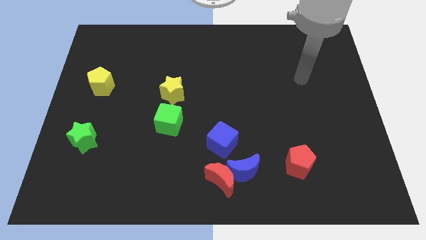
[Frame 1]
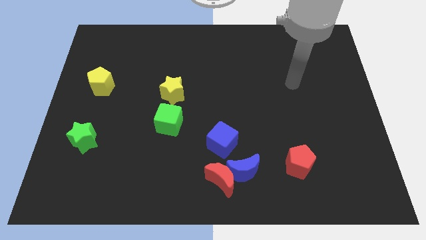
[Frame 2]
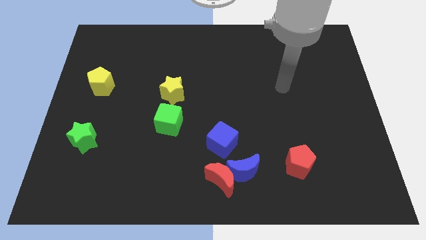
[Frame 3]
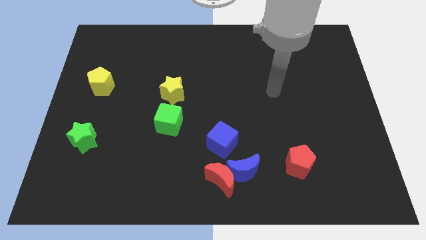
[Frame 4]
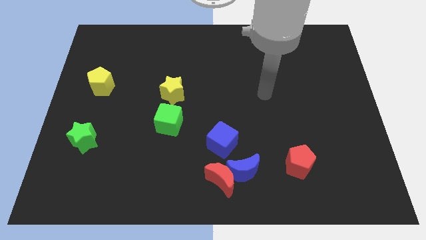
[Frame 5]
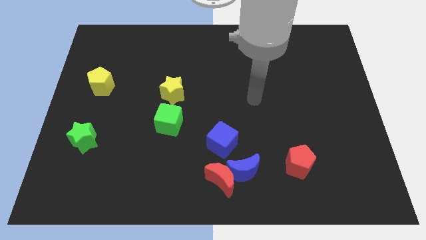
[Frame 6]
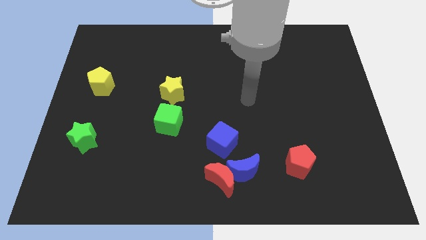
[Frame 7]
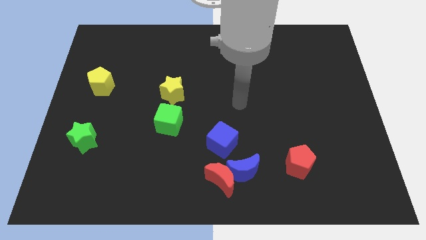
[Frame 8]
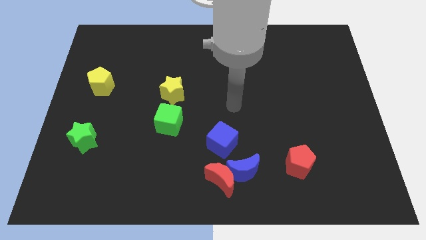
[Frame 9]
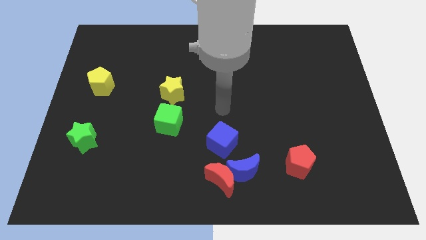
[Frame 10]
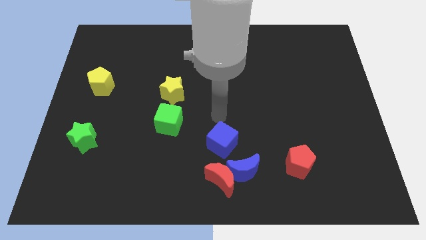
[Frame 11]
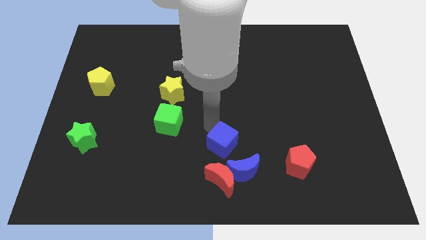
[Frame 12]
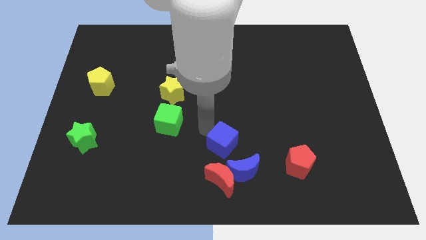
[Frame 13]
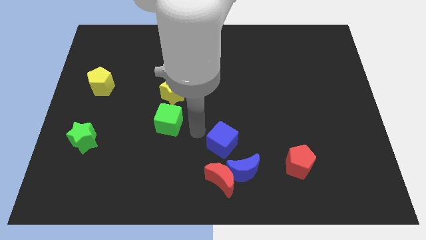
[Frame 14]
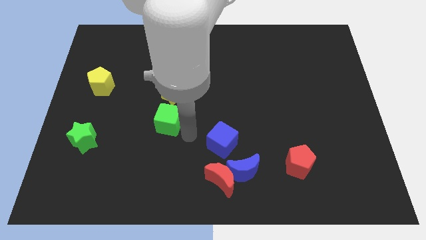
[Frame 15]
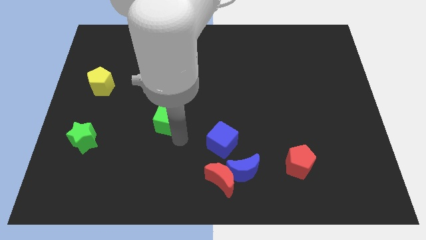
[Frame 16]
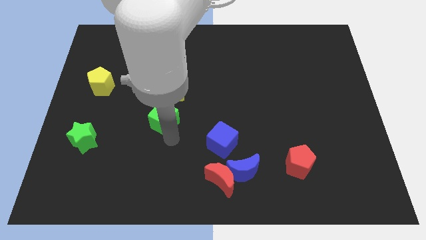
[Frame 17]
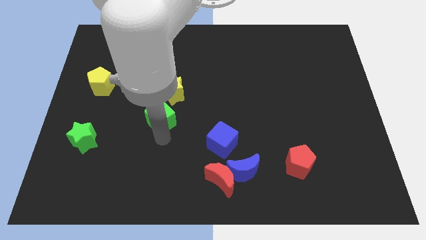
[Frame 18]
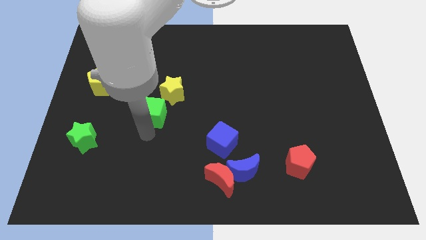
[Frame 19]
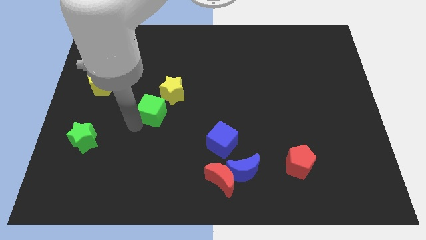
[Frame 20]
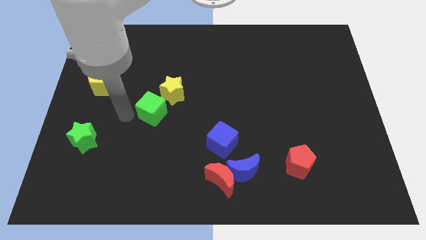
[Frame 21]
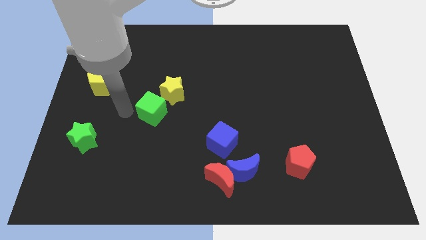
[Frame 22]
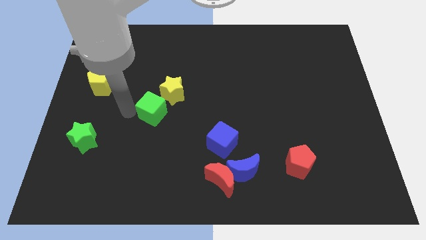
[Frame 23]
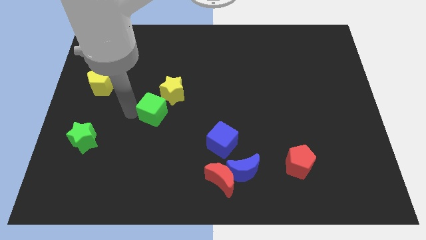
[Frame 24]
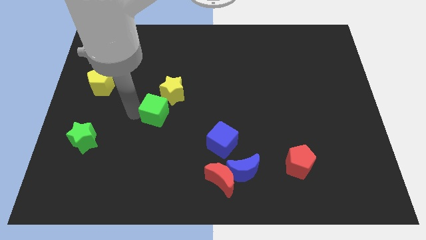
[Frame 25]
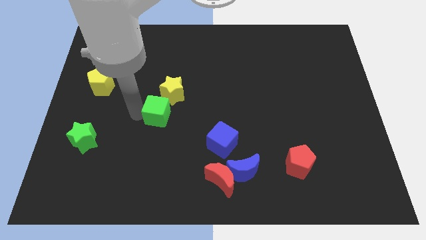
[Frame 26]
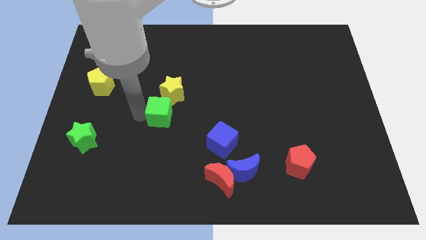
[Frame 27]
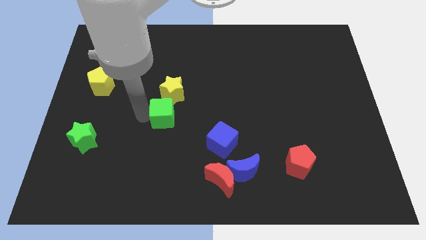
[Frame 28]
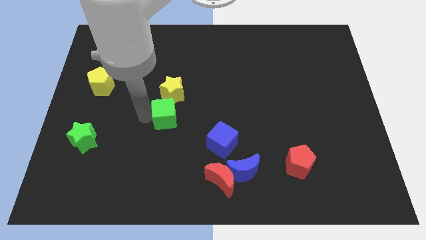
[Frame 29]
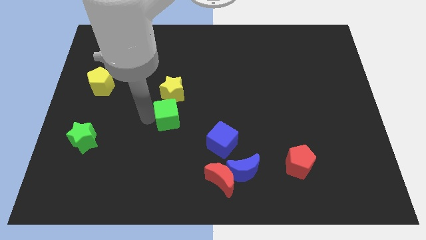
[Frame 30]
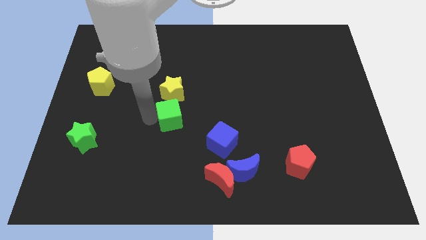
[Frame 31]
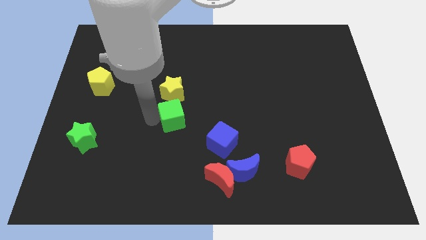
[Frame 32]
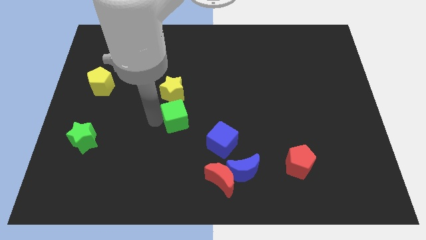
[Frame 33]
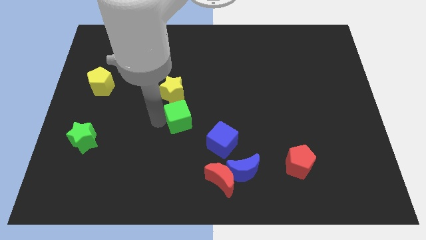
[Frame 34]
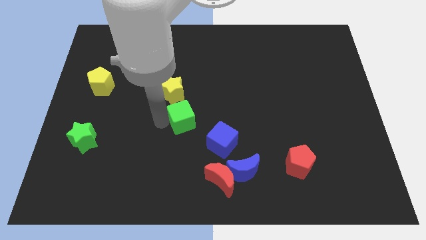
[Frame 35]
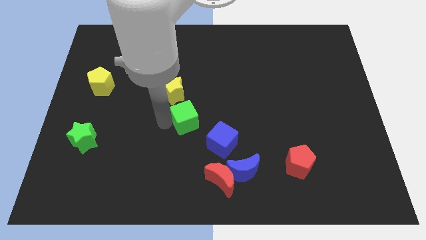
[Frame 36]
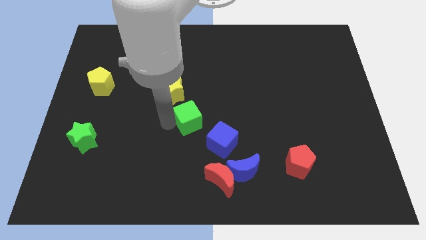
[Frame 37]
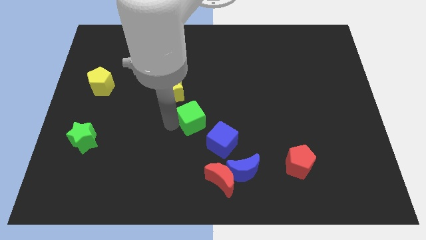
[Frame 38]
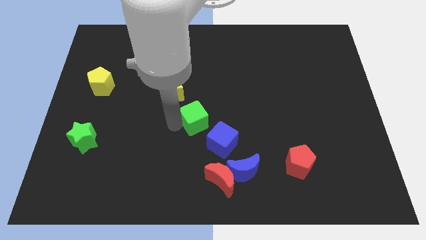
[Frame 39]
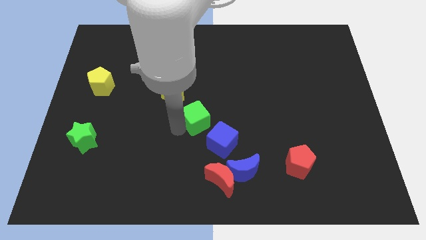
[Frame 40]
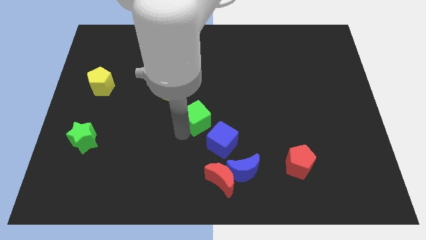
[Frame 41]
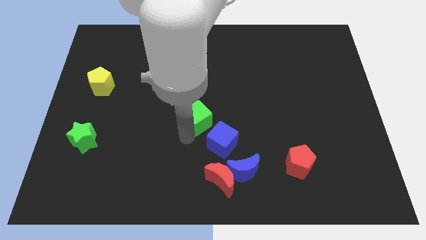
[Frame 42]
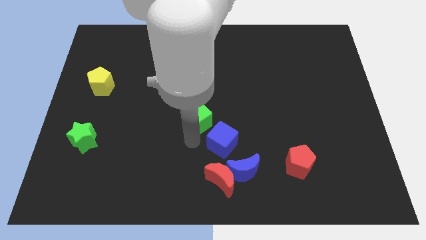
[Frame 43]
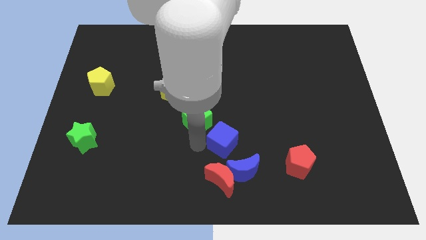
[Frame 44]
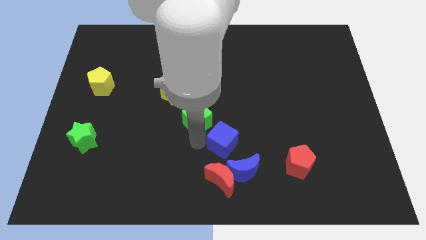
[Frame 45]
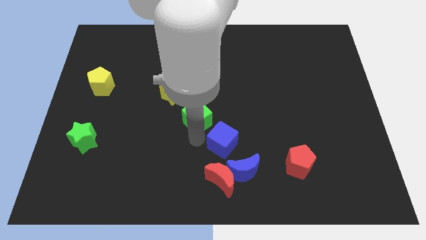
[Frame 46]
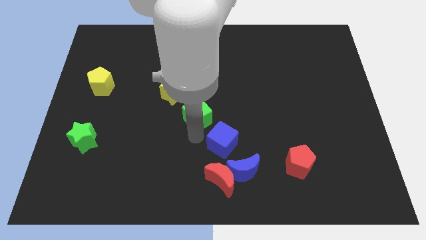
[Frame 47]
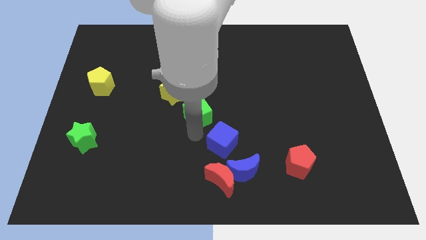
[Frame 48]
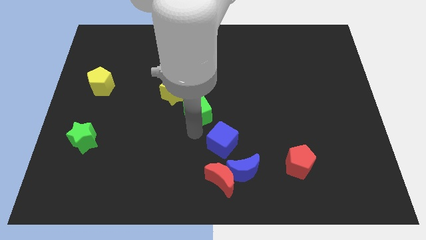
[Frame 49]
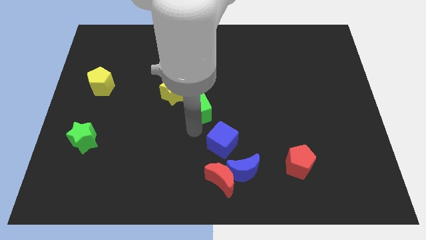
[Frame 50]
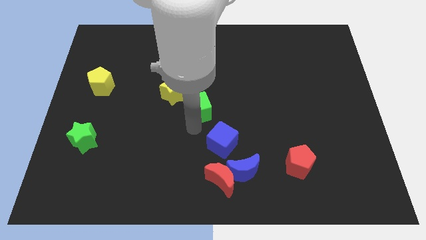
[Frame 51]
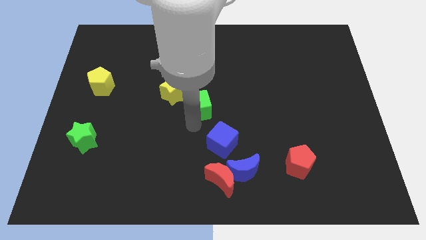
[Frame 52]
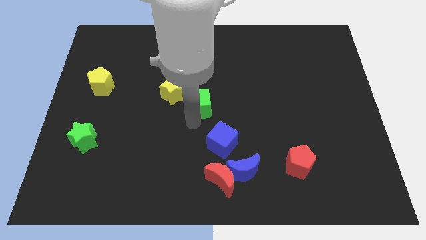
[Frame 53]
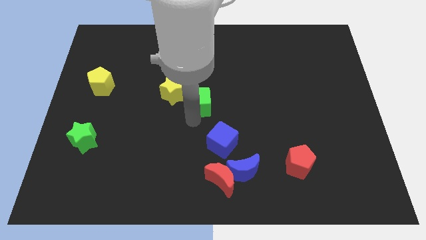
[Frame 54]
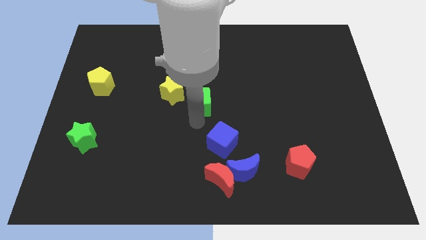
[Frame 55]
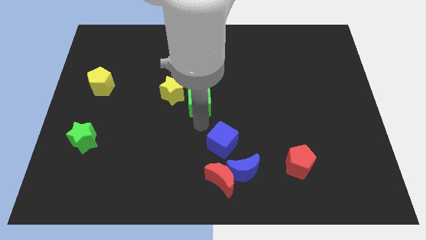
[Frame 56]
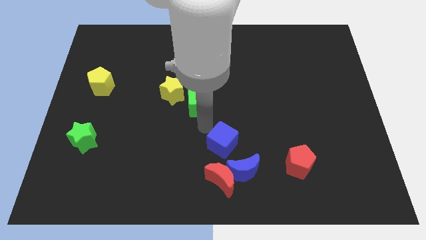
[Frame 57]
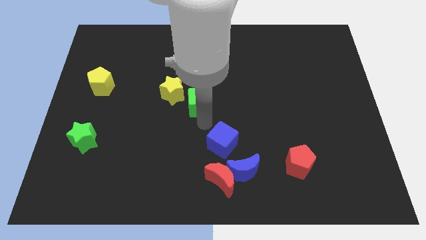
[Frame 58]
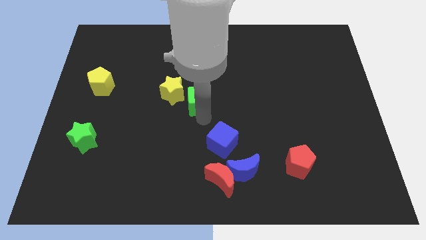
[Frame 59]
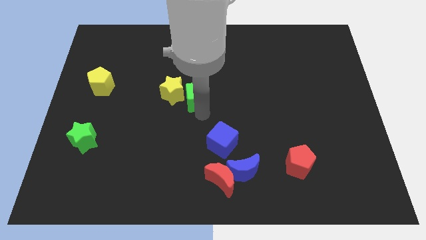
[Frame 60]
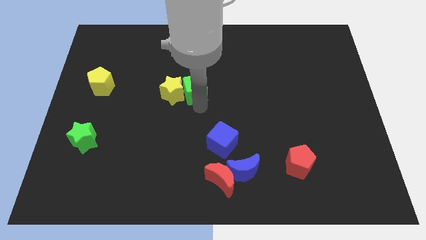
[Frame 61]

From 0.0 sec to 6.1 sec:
slightly push the green cube upwards

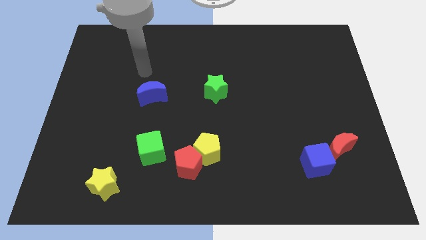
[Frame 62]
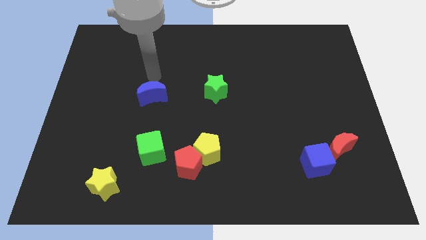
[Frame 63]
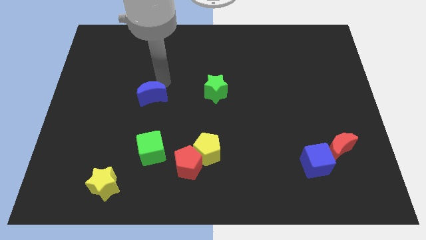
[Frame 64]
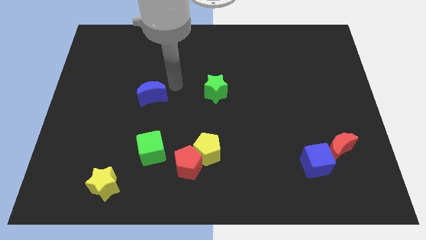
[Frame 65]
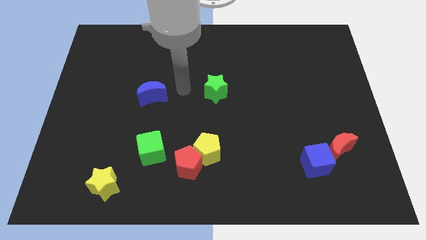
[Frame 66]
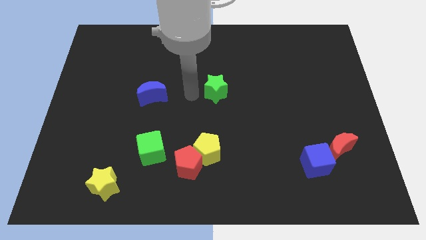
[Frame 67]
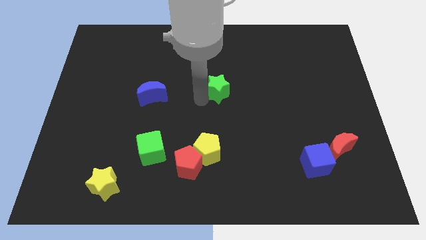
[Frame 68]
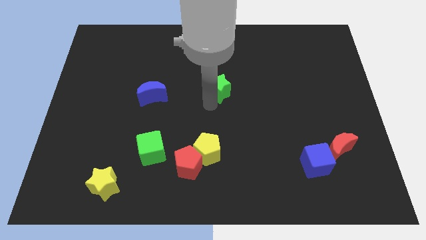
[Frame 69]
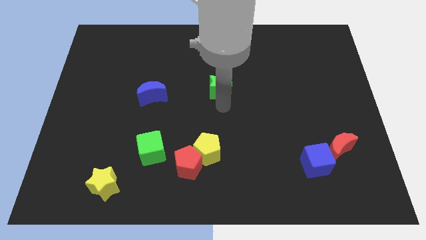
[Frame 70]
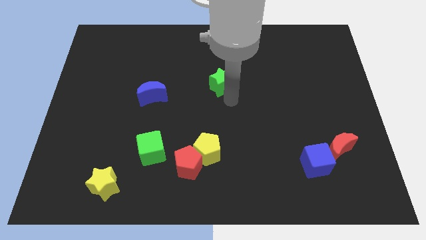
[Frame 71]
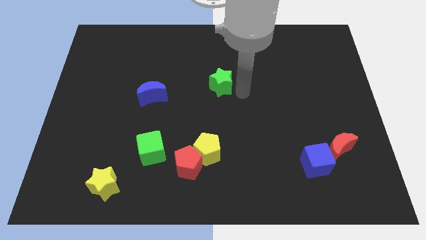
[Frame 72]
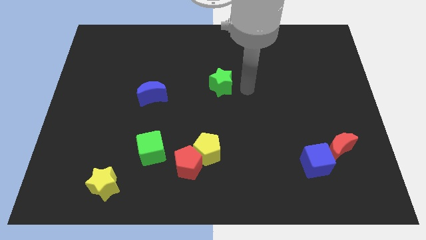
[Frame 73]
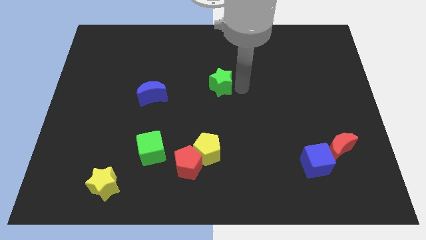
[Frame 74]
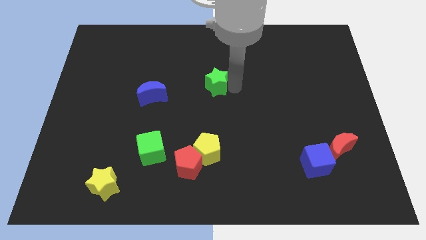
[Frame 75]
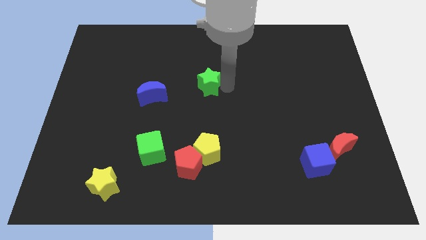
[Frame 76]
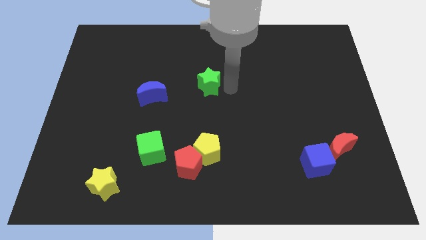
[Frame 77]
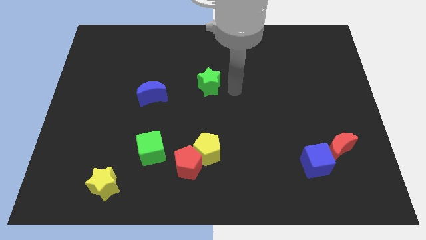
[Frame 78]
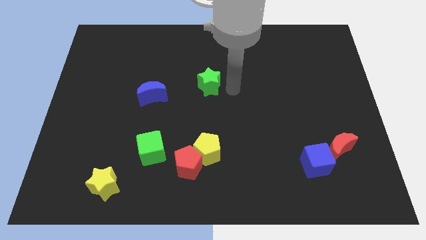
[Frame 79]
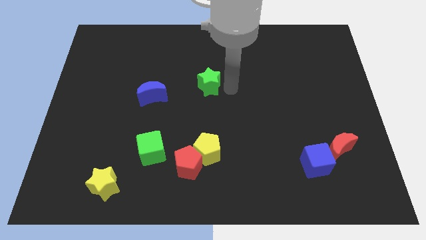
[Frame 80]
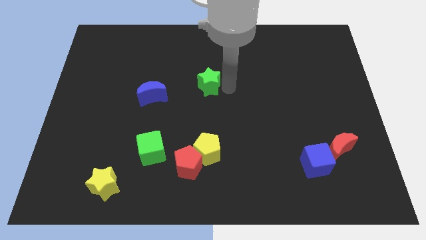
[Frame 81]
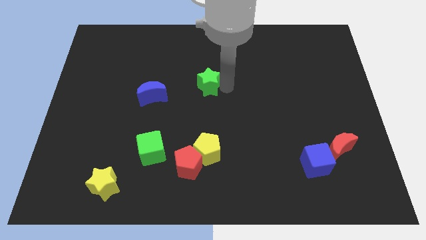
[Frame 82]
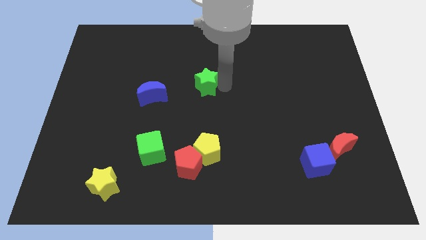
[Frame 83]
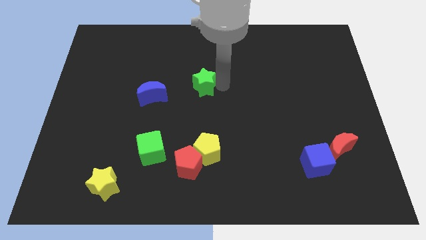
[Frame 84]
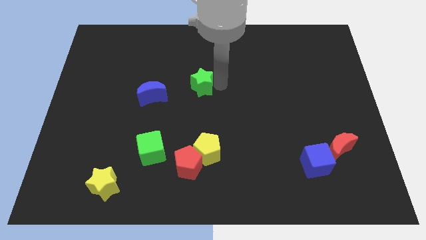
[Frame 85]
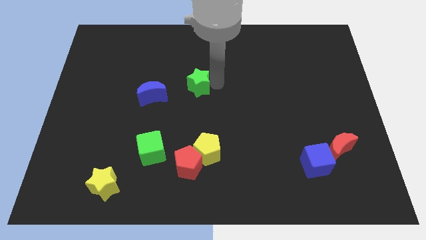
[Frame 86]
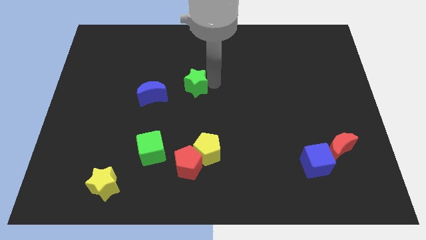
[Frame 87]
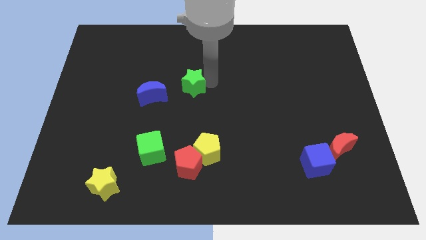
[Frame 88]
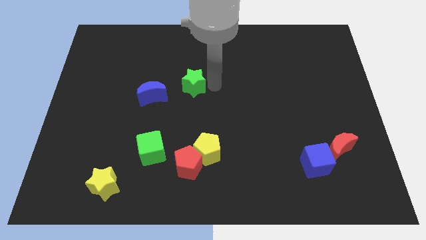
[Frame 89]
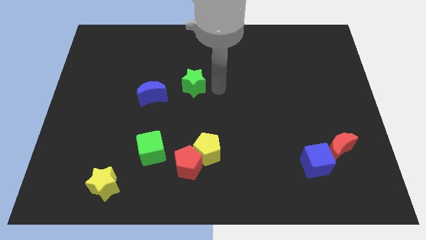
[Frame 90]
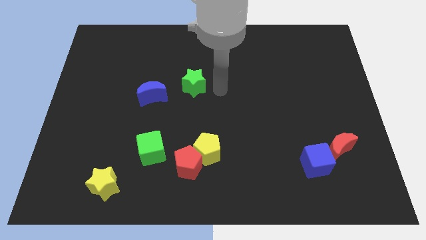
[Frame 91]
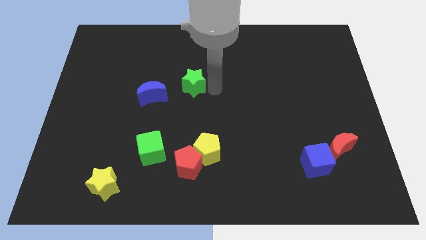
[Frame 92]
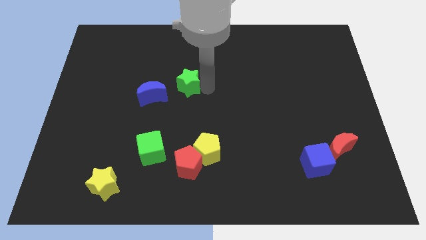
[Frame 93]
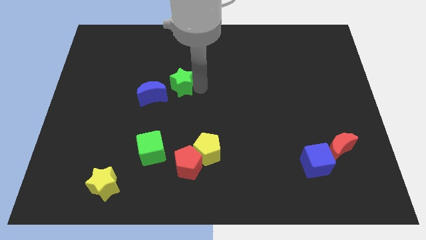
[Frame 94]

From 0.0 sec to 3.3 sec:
push the green star somewhat to the left
